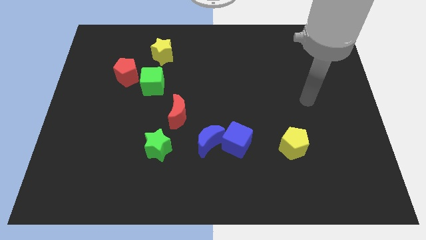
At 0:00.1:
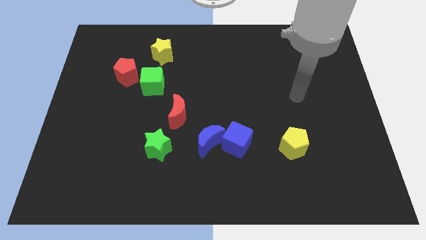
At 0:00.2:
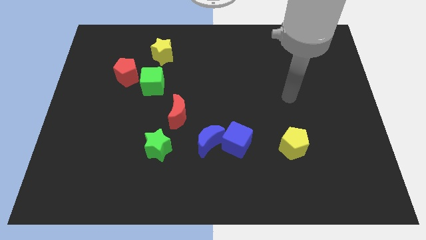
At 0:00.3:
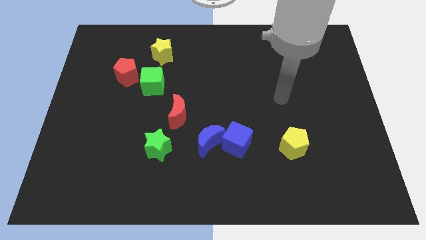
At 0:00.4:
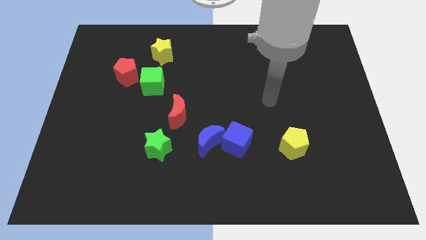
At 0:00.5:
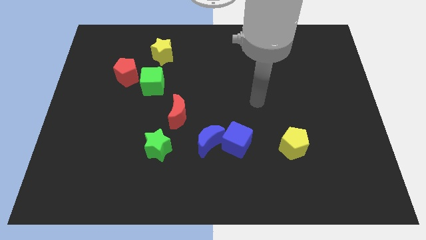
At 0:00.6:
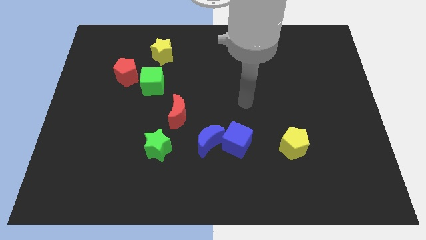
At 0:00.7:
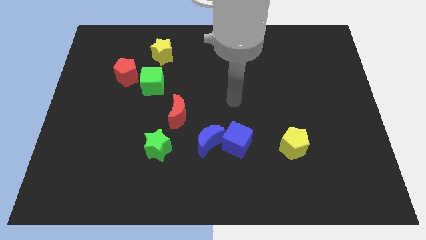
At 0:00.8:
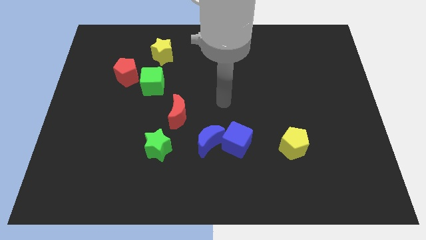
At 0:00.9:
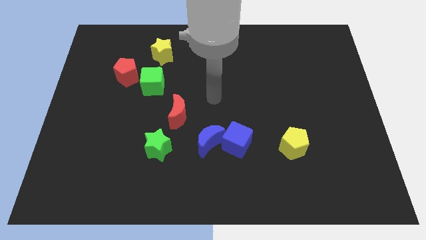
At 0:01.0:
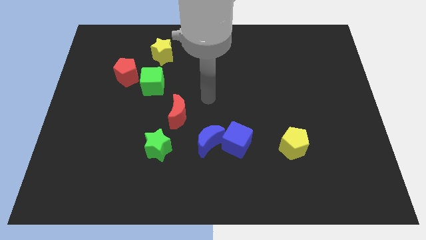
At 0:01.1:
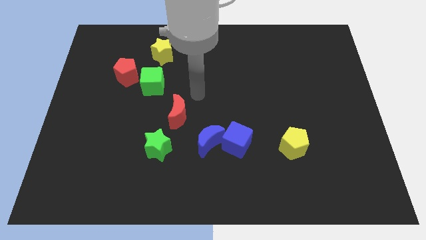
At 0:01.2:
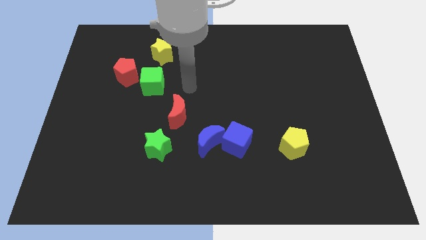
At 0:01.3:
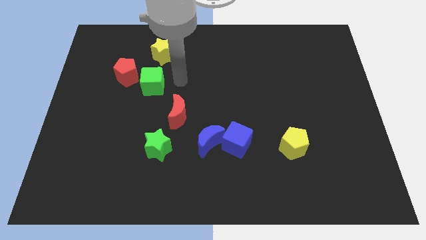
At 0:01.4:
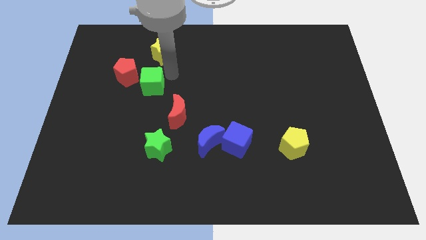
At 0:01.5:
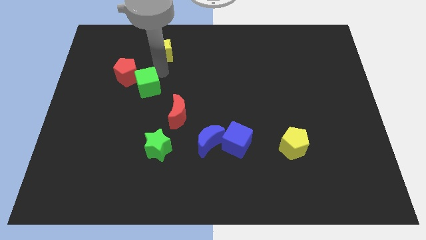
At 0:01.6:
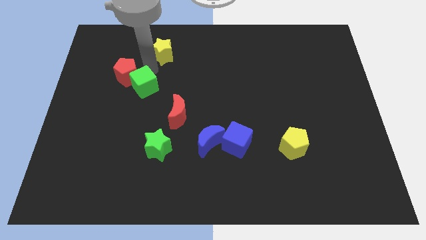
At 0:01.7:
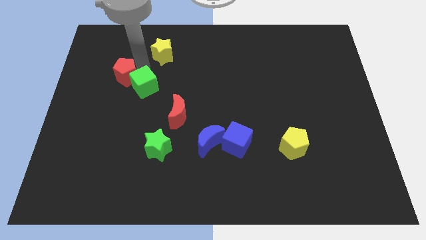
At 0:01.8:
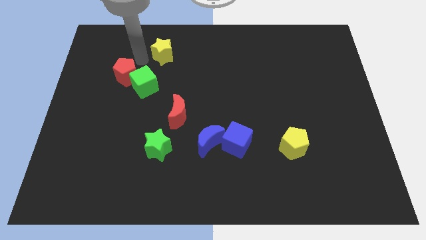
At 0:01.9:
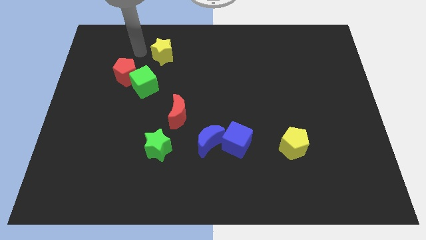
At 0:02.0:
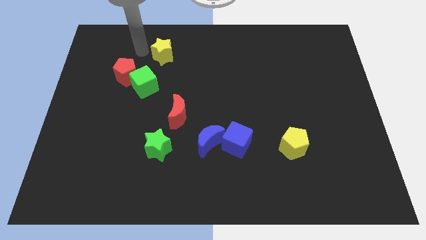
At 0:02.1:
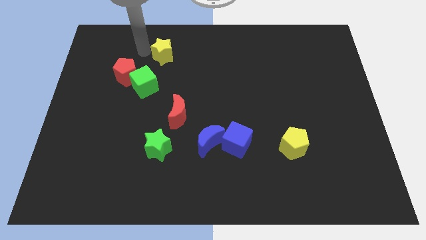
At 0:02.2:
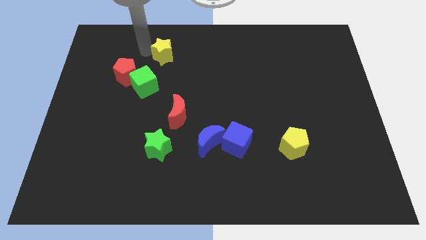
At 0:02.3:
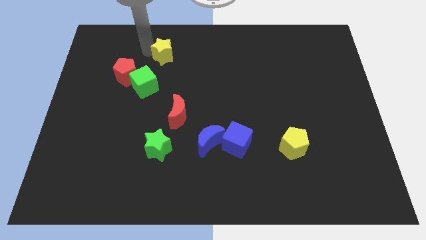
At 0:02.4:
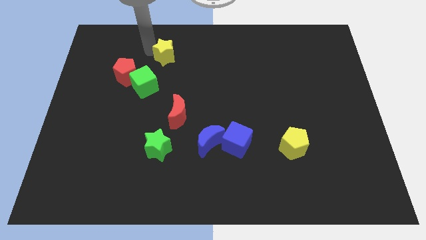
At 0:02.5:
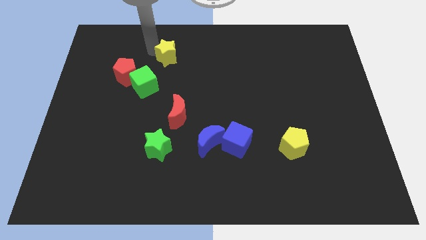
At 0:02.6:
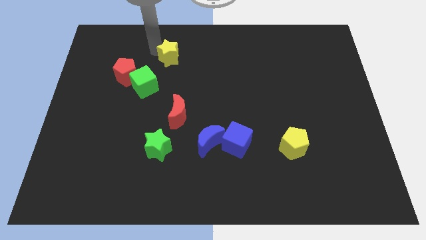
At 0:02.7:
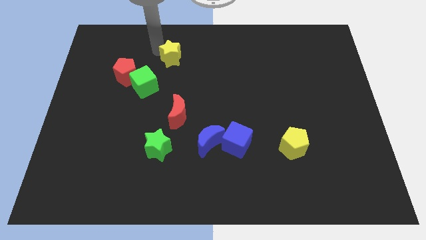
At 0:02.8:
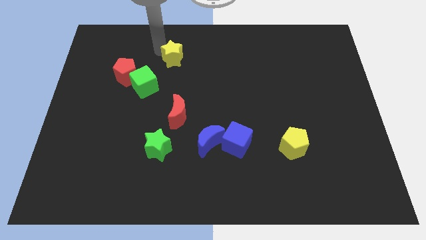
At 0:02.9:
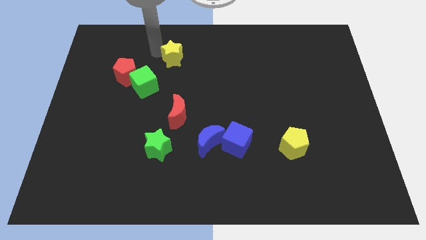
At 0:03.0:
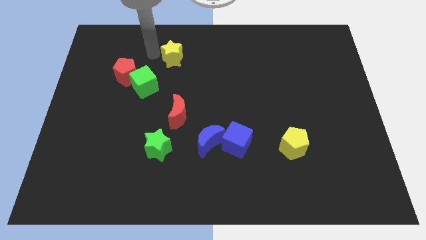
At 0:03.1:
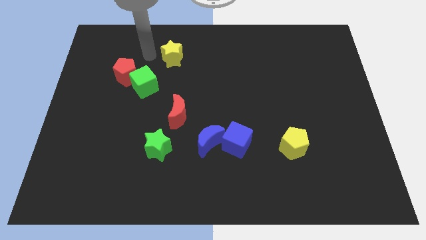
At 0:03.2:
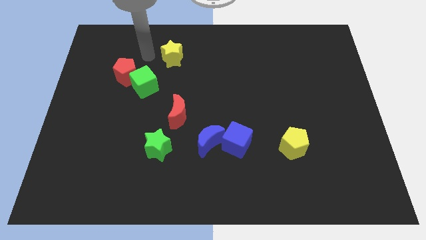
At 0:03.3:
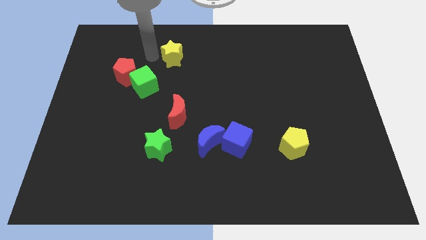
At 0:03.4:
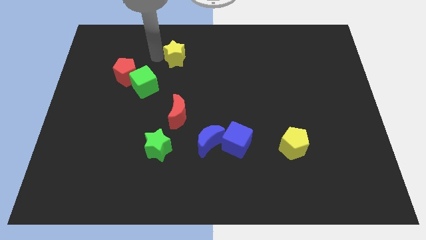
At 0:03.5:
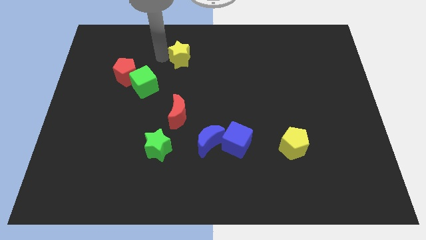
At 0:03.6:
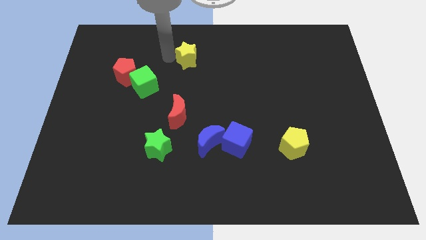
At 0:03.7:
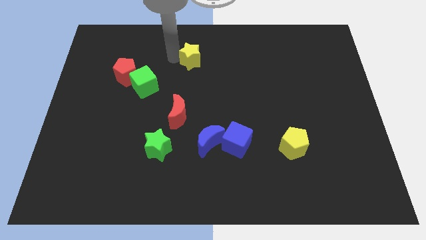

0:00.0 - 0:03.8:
push the yellow star a bit right

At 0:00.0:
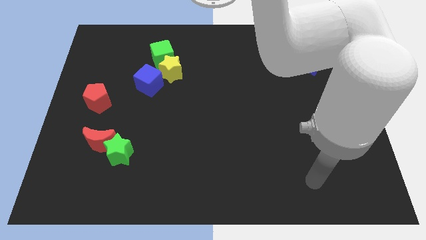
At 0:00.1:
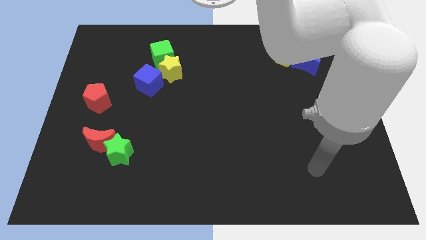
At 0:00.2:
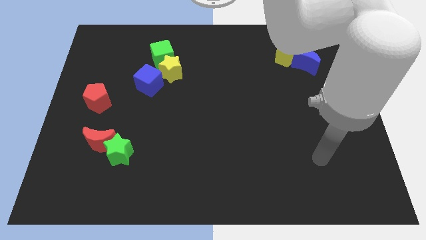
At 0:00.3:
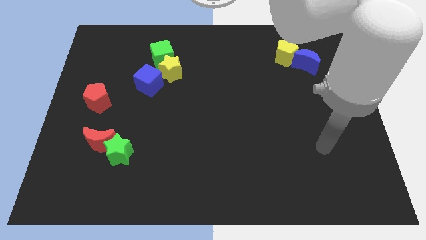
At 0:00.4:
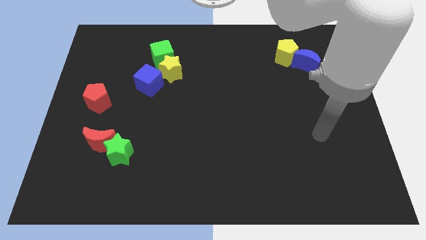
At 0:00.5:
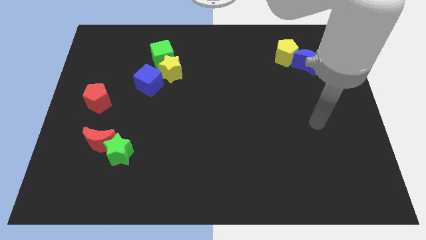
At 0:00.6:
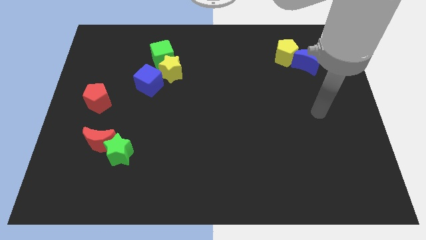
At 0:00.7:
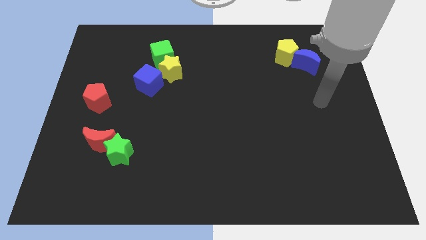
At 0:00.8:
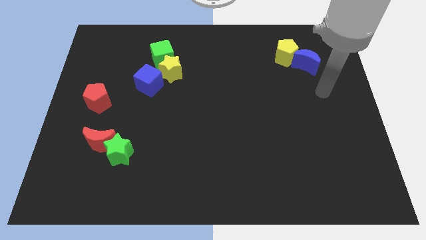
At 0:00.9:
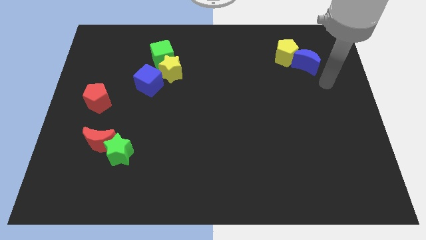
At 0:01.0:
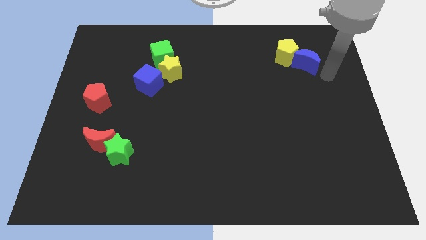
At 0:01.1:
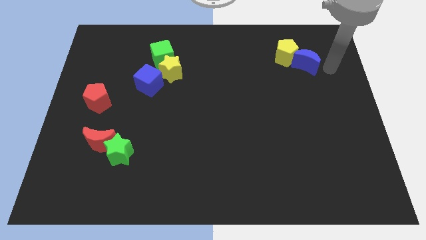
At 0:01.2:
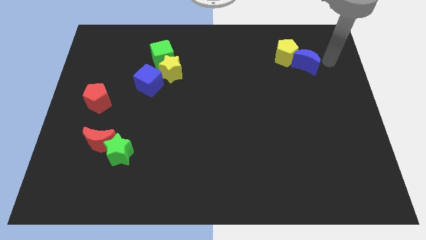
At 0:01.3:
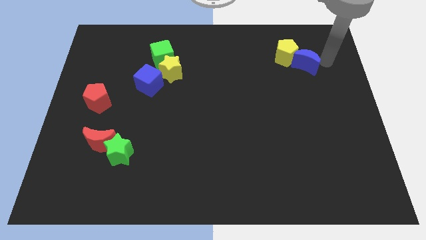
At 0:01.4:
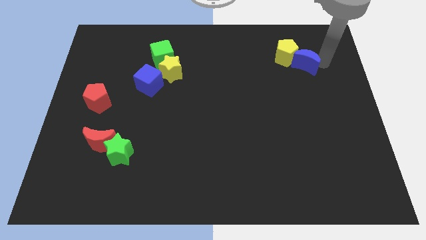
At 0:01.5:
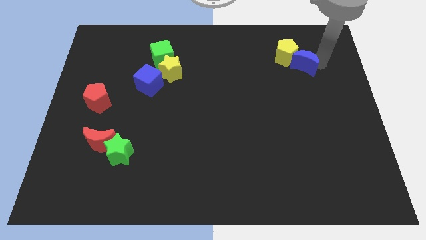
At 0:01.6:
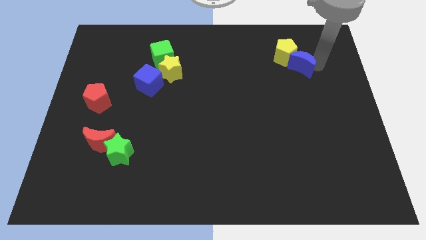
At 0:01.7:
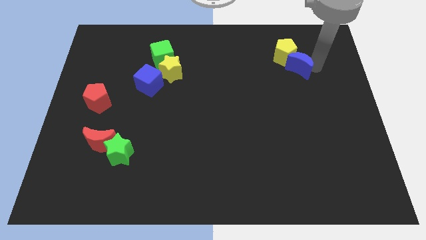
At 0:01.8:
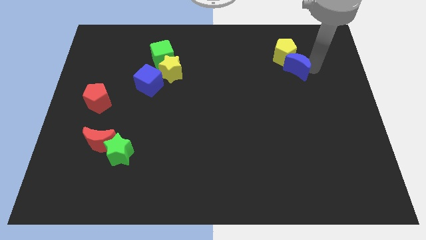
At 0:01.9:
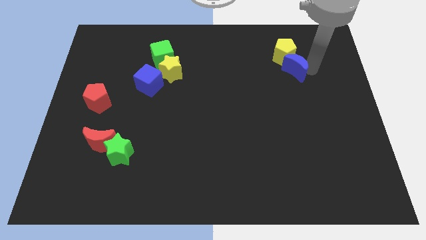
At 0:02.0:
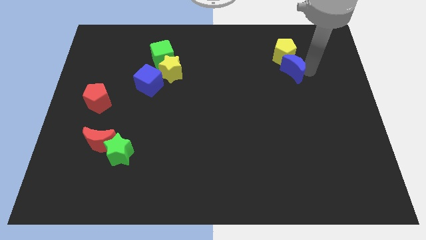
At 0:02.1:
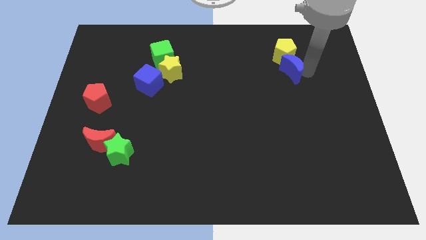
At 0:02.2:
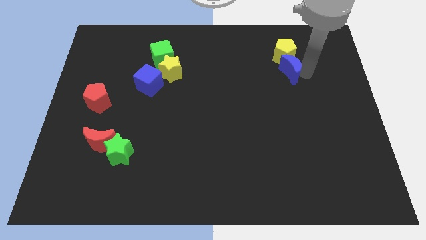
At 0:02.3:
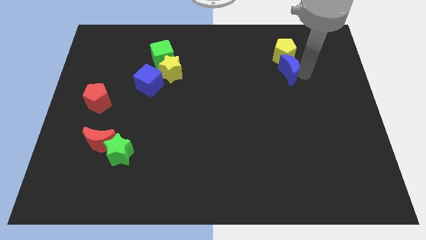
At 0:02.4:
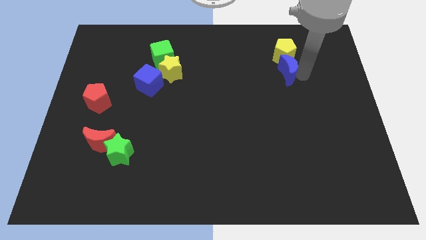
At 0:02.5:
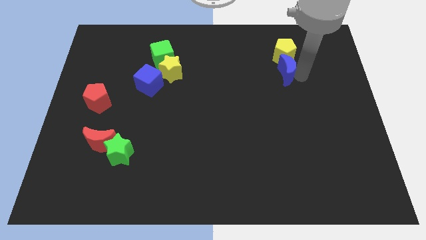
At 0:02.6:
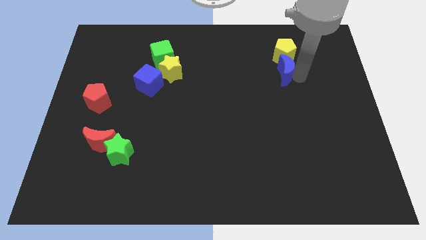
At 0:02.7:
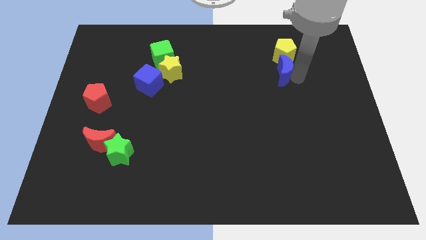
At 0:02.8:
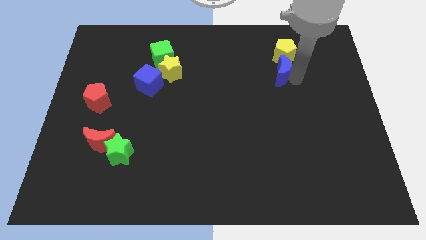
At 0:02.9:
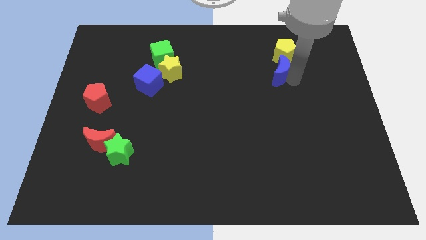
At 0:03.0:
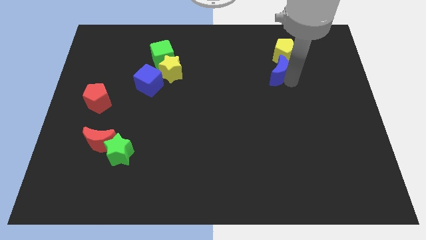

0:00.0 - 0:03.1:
push the blue moon a little bit to the left

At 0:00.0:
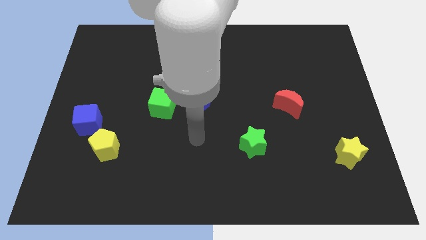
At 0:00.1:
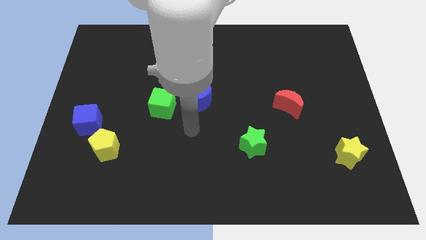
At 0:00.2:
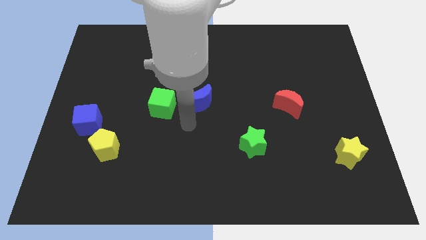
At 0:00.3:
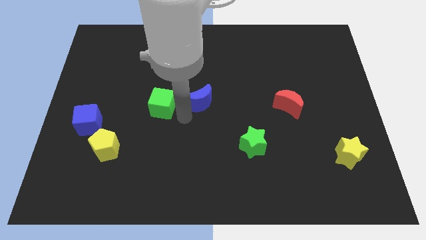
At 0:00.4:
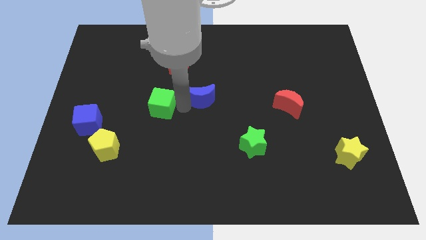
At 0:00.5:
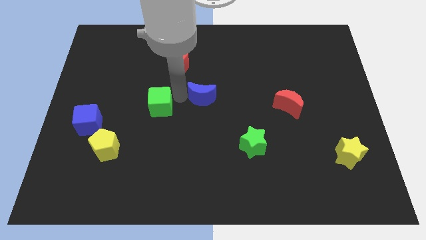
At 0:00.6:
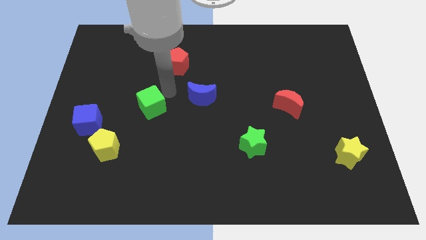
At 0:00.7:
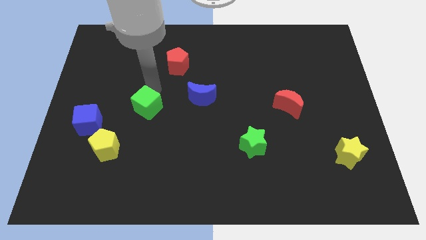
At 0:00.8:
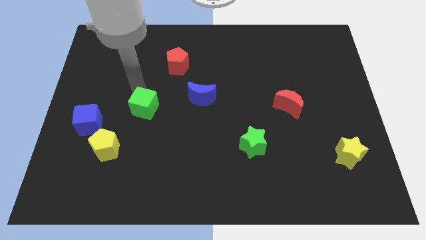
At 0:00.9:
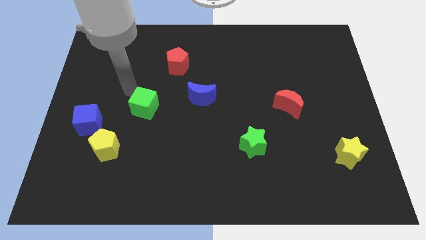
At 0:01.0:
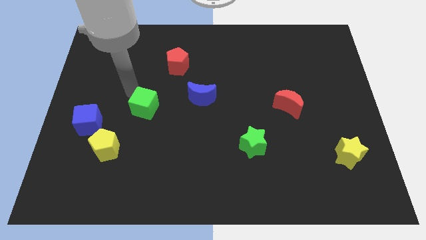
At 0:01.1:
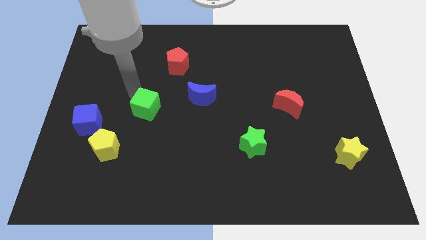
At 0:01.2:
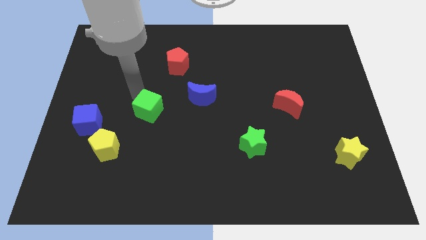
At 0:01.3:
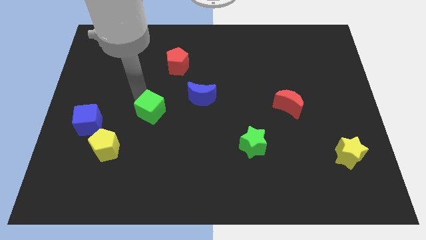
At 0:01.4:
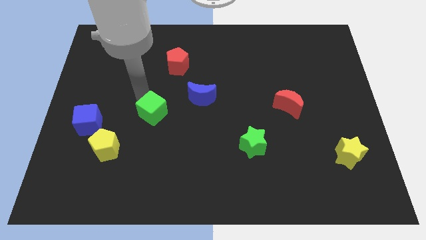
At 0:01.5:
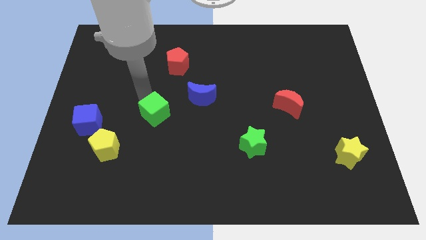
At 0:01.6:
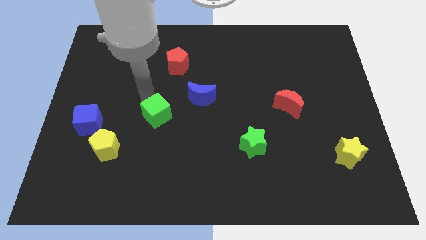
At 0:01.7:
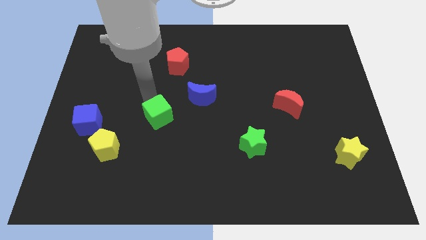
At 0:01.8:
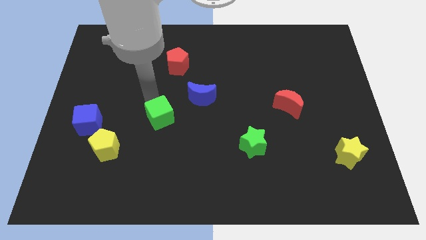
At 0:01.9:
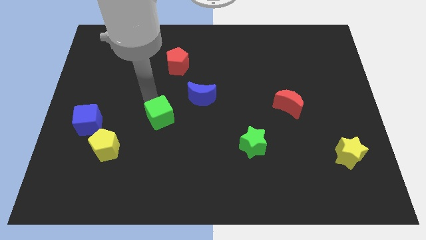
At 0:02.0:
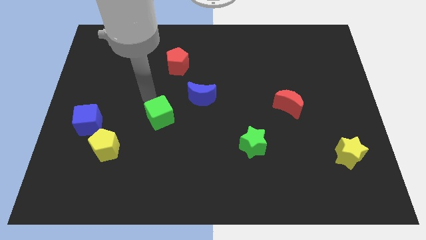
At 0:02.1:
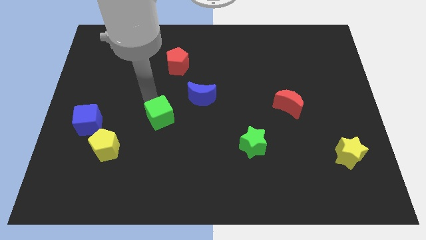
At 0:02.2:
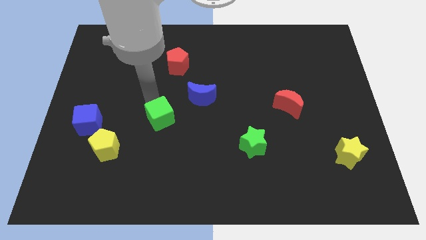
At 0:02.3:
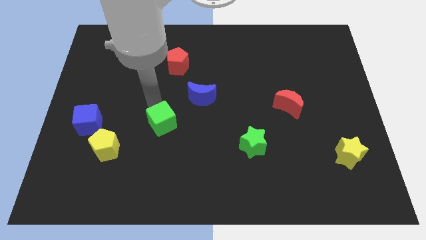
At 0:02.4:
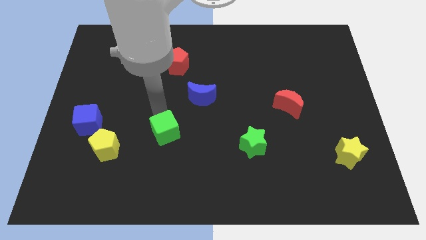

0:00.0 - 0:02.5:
slide the green cube a little downwards
